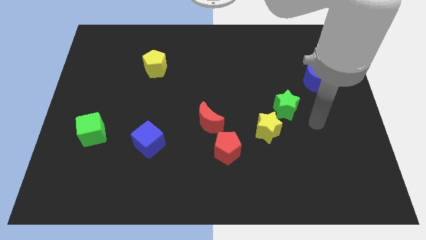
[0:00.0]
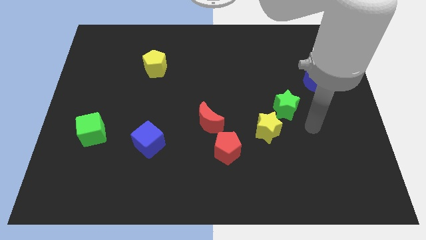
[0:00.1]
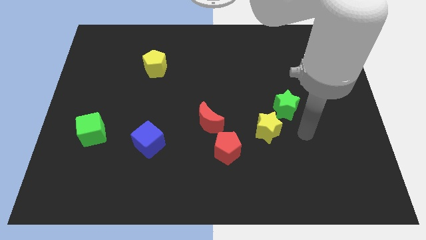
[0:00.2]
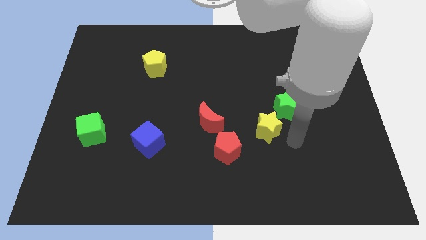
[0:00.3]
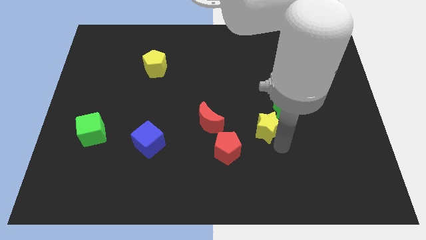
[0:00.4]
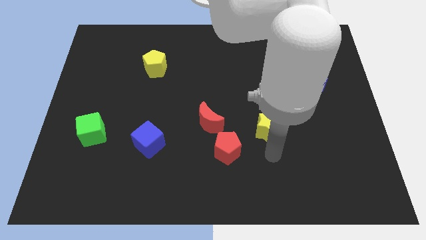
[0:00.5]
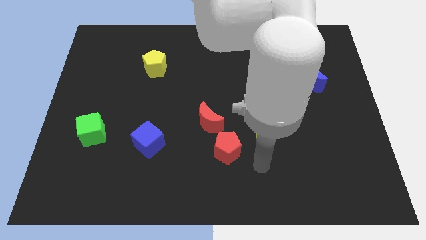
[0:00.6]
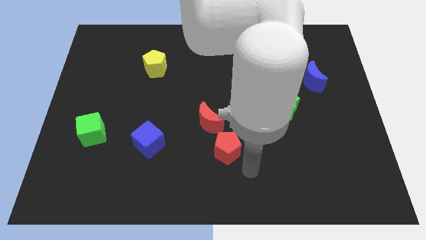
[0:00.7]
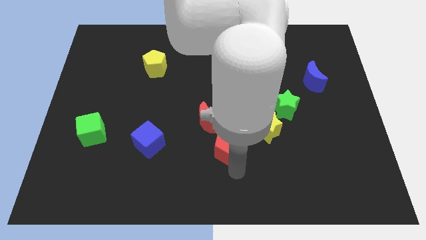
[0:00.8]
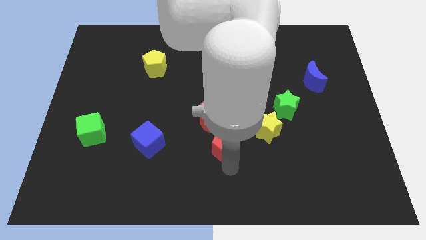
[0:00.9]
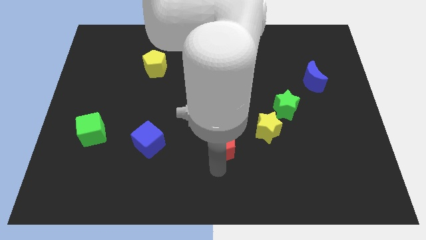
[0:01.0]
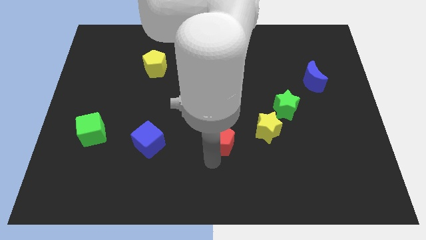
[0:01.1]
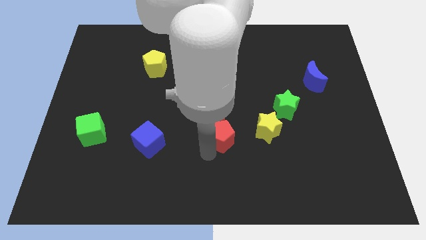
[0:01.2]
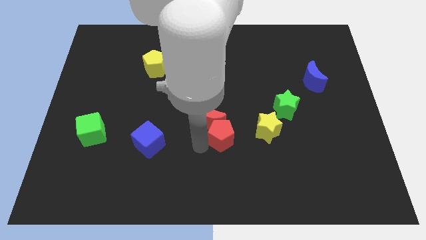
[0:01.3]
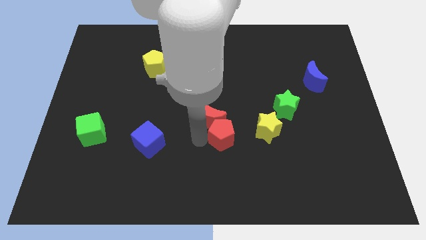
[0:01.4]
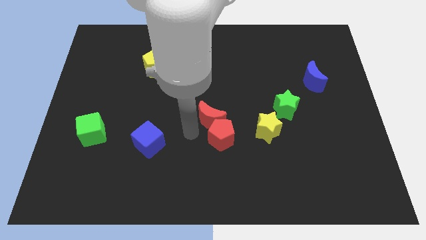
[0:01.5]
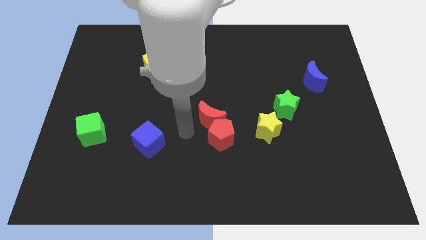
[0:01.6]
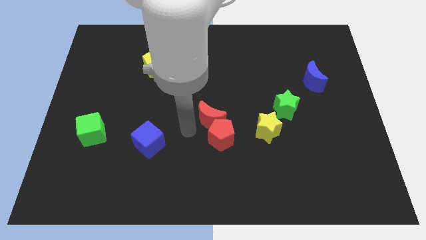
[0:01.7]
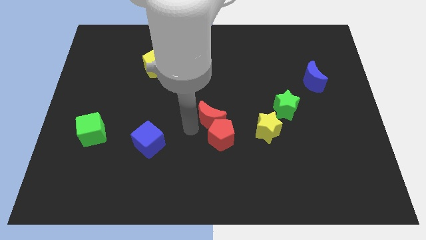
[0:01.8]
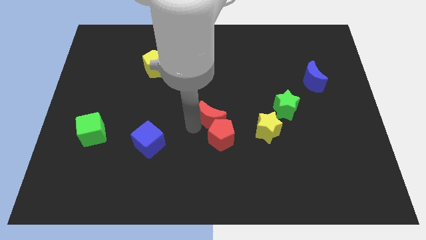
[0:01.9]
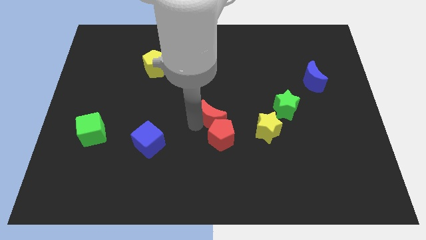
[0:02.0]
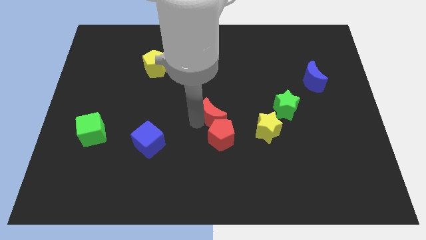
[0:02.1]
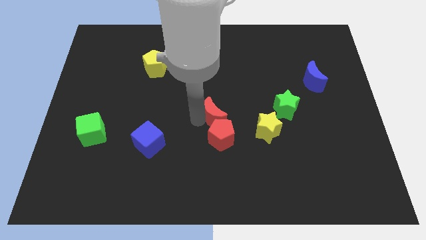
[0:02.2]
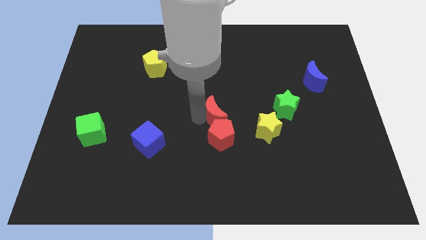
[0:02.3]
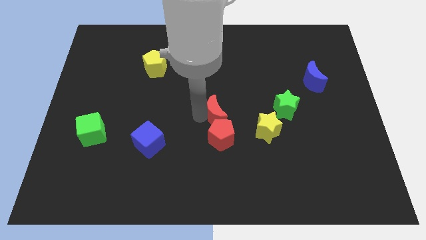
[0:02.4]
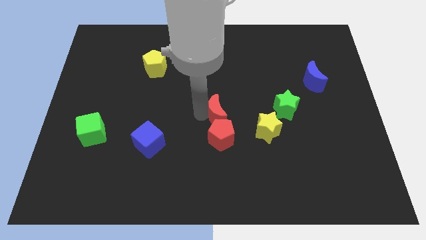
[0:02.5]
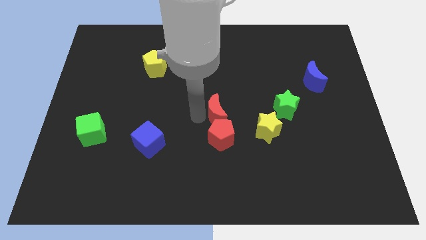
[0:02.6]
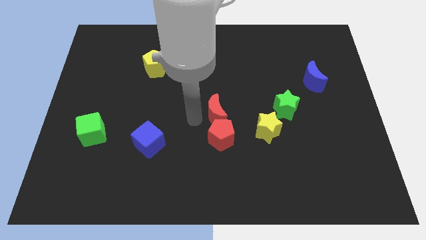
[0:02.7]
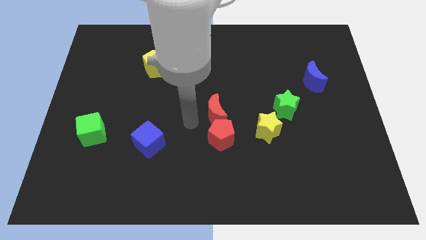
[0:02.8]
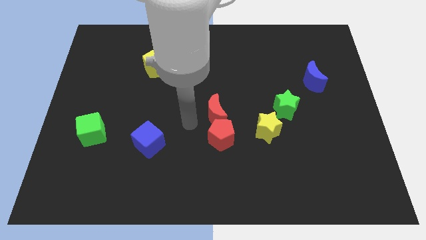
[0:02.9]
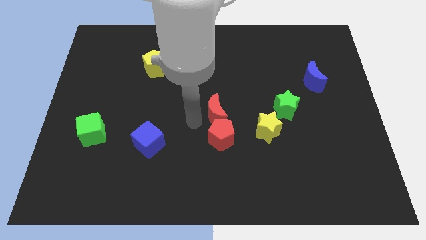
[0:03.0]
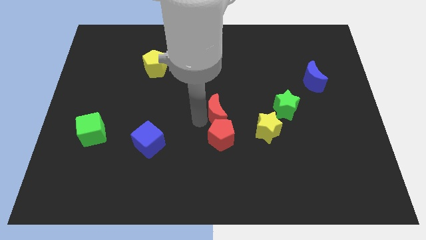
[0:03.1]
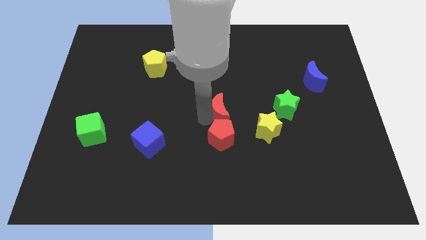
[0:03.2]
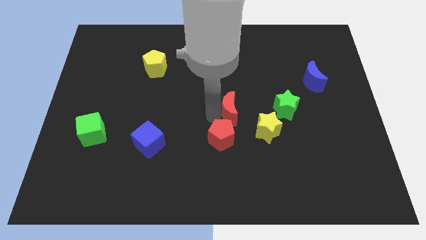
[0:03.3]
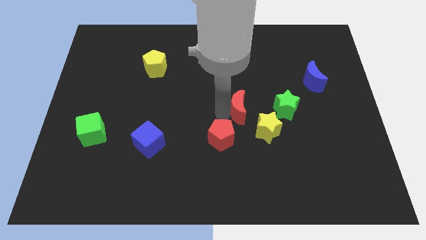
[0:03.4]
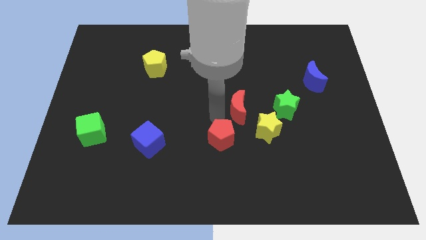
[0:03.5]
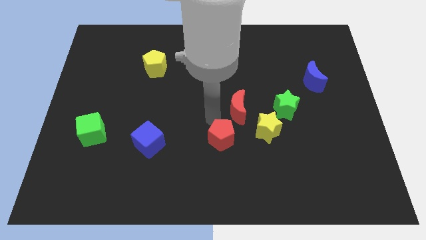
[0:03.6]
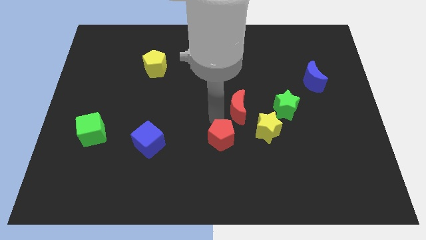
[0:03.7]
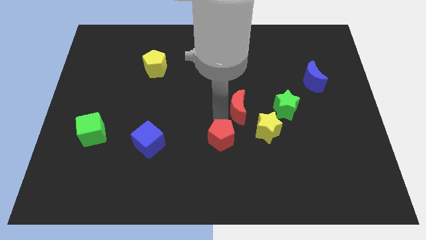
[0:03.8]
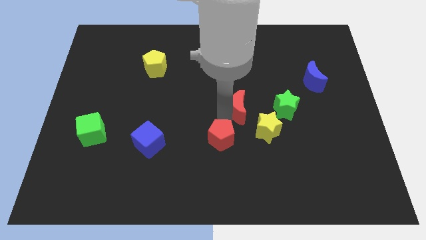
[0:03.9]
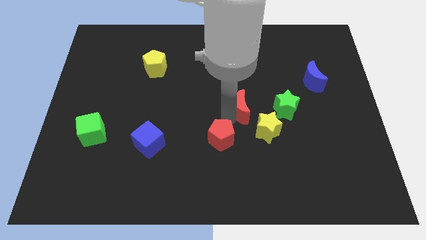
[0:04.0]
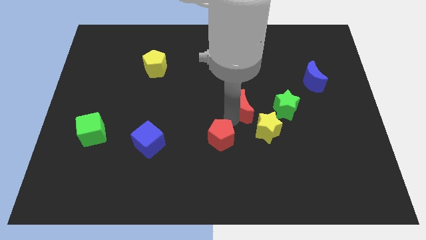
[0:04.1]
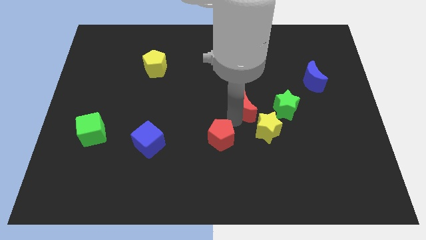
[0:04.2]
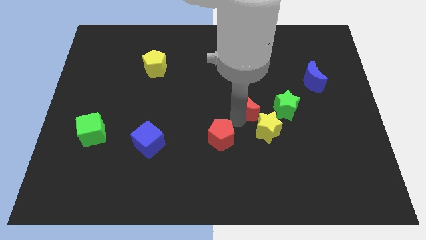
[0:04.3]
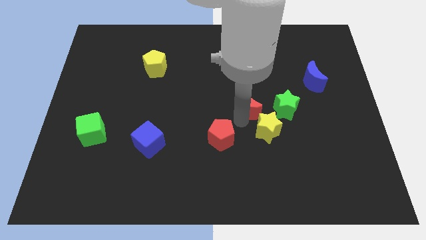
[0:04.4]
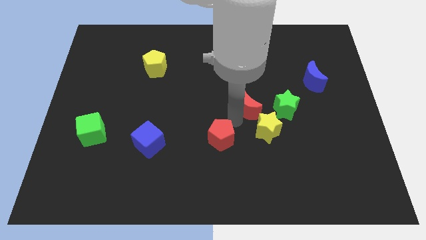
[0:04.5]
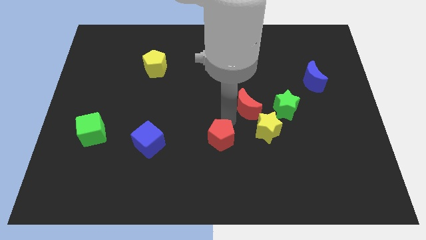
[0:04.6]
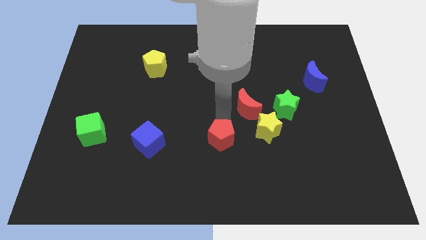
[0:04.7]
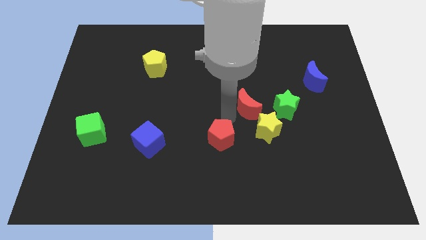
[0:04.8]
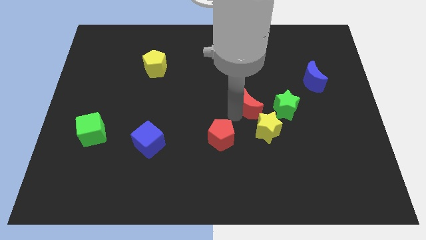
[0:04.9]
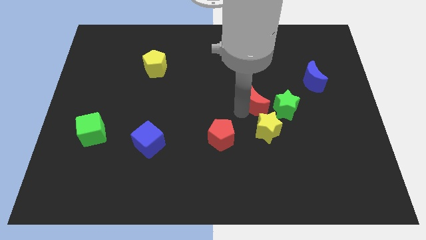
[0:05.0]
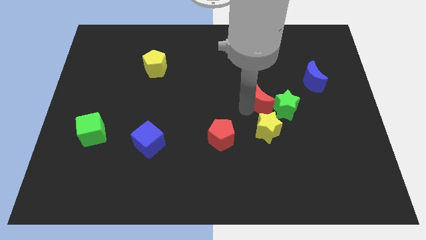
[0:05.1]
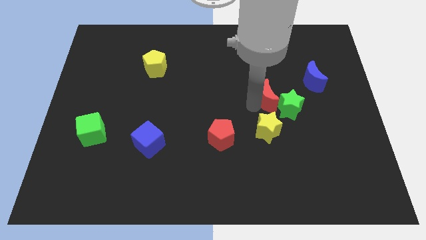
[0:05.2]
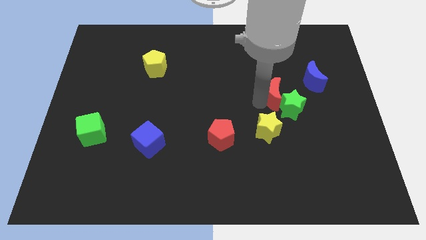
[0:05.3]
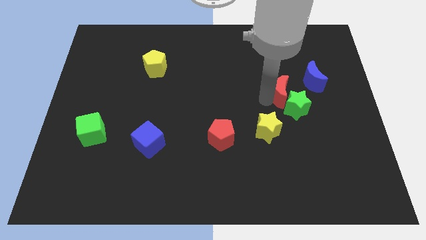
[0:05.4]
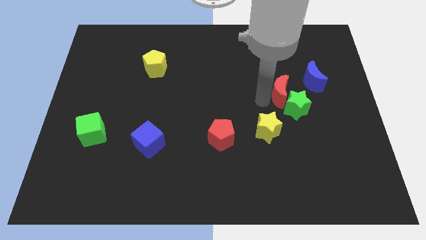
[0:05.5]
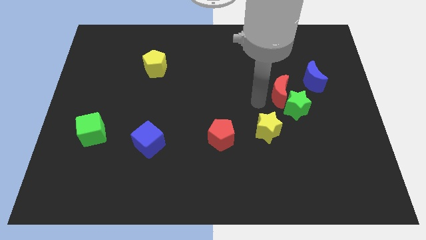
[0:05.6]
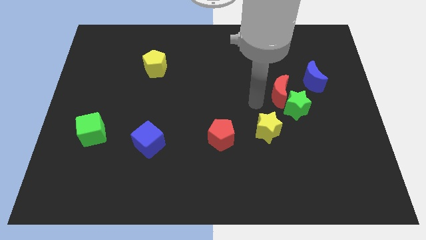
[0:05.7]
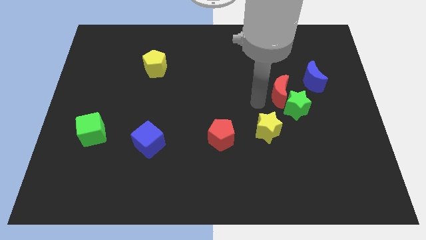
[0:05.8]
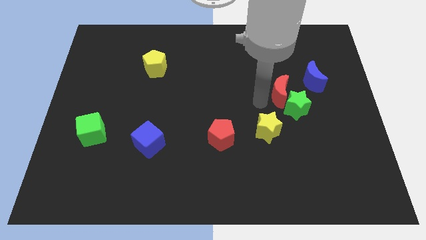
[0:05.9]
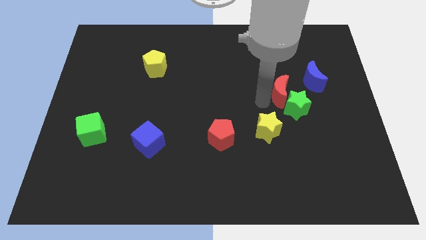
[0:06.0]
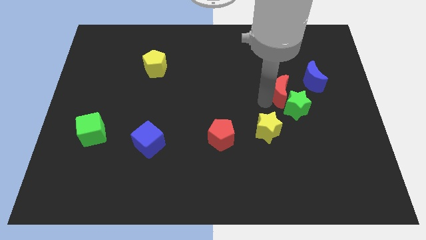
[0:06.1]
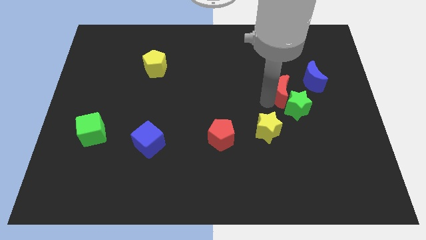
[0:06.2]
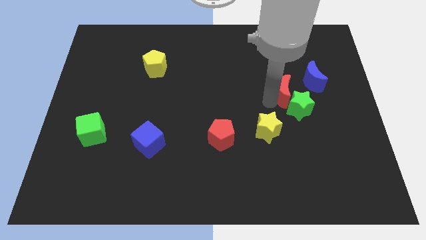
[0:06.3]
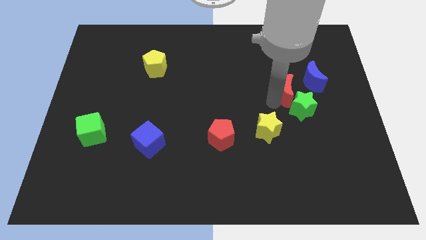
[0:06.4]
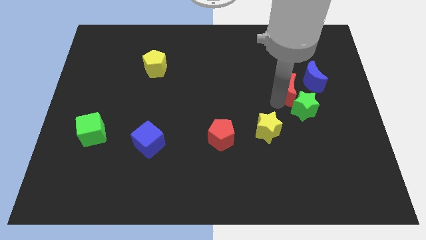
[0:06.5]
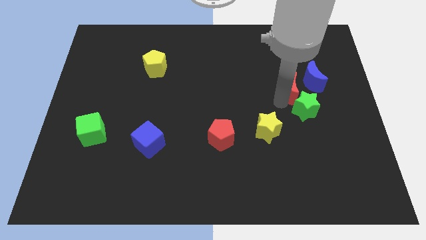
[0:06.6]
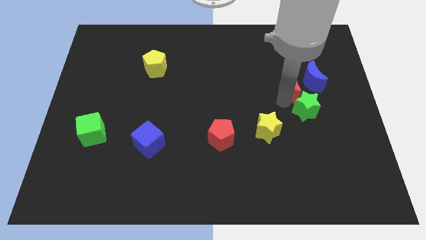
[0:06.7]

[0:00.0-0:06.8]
push the red moon close to the blue moon
